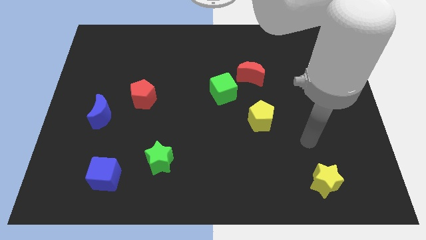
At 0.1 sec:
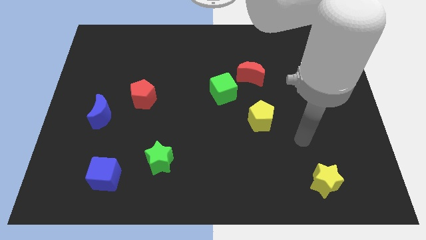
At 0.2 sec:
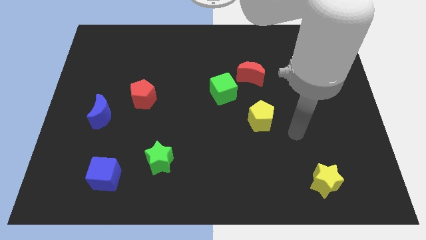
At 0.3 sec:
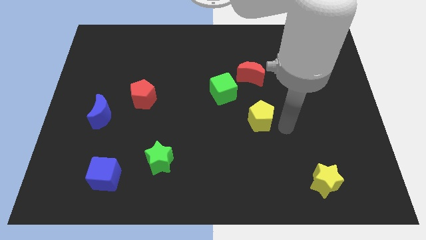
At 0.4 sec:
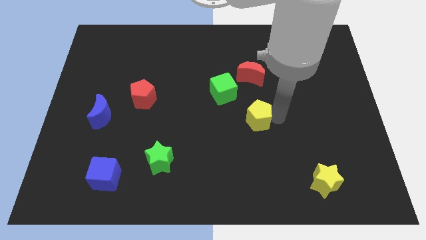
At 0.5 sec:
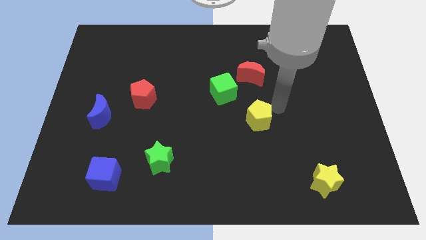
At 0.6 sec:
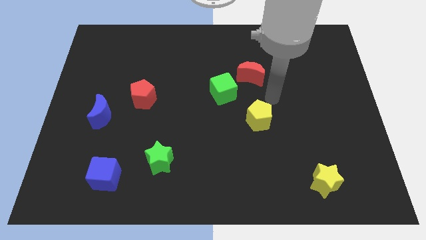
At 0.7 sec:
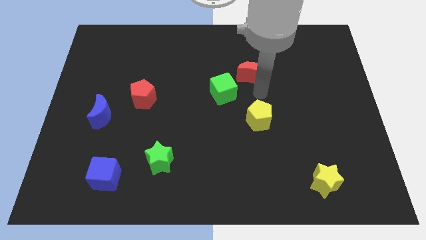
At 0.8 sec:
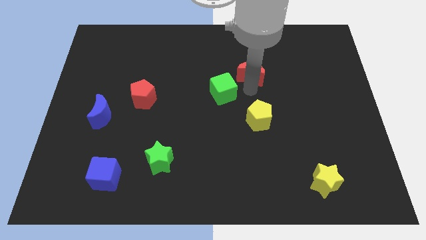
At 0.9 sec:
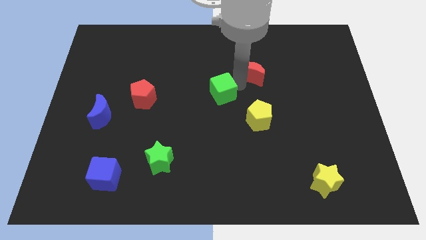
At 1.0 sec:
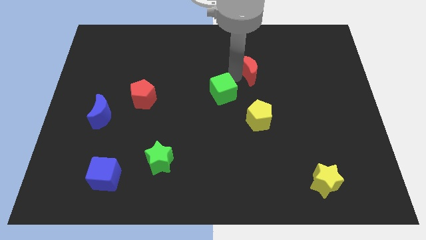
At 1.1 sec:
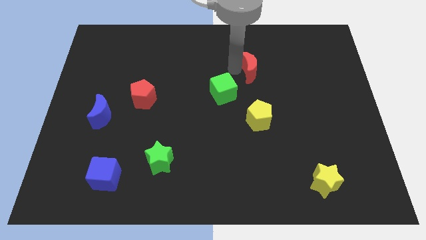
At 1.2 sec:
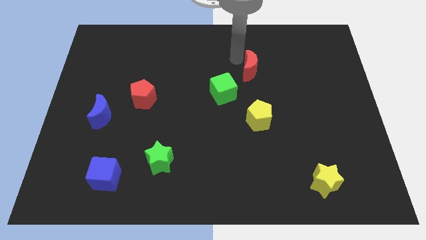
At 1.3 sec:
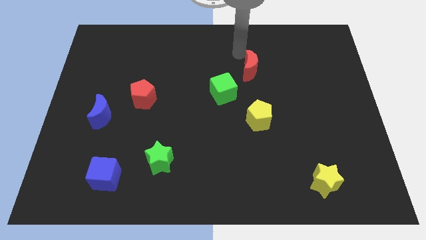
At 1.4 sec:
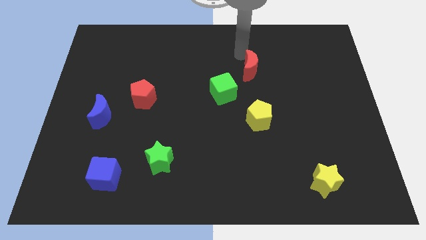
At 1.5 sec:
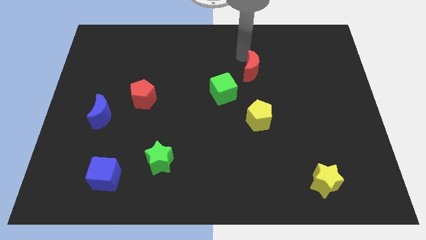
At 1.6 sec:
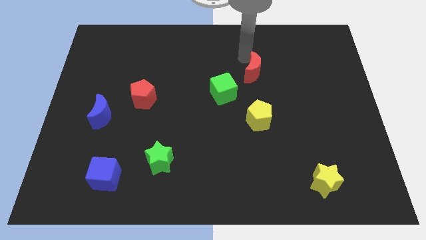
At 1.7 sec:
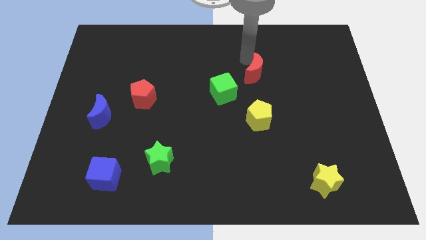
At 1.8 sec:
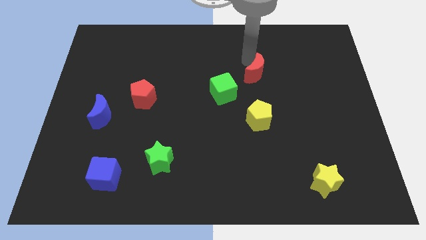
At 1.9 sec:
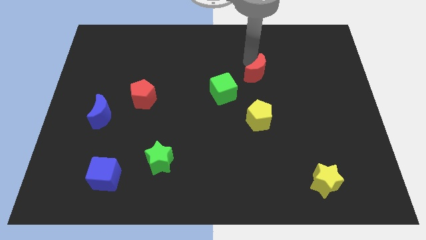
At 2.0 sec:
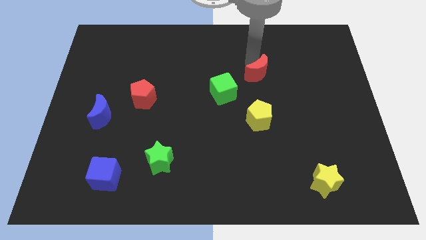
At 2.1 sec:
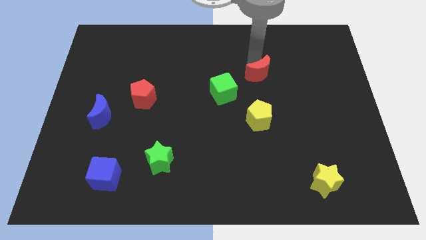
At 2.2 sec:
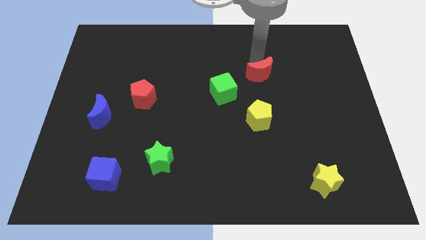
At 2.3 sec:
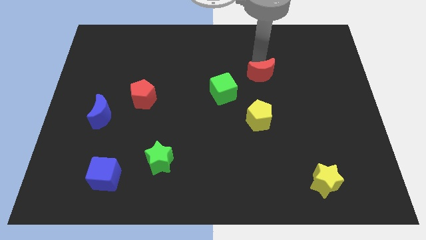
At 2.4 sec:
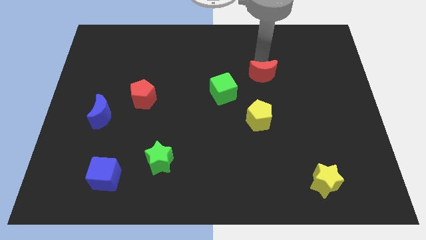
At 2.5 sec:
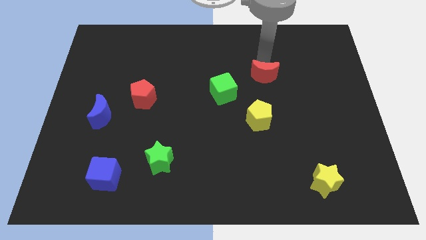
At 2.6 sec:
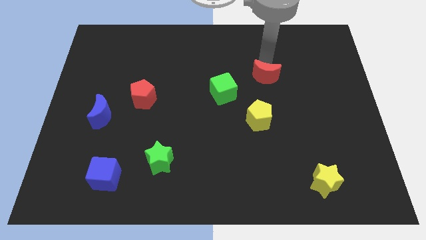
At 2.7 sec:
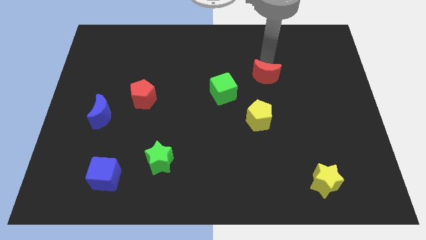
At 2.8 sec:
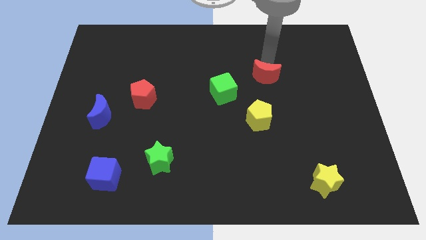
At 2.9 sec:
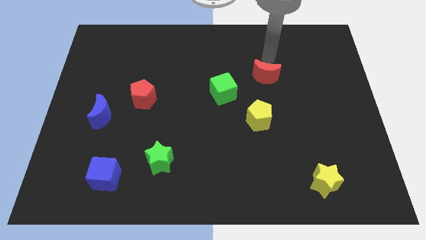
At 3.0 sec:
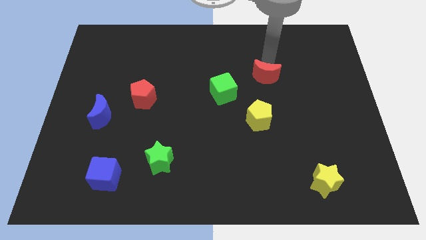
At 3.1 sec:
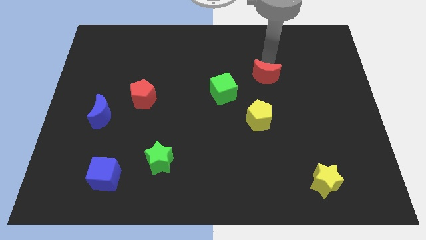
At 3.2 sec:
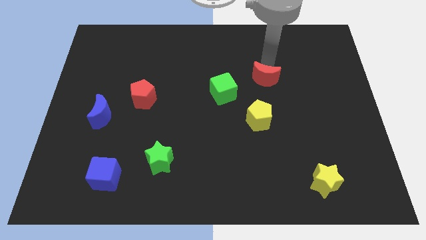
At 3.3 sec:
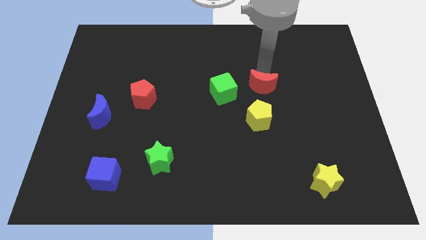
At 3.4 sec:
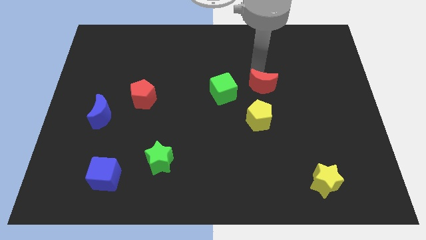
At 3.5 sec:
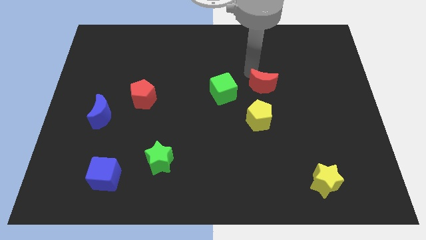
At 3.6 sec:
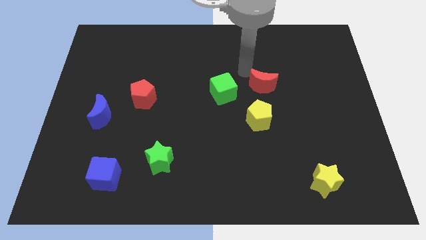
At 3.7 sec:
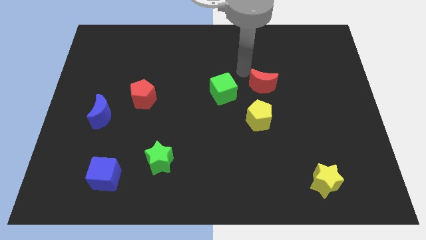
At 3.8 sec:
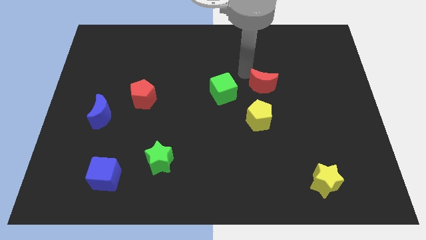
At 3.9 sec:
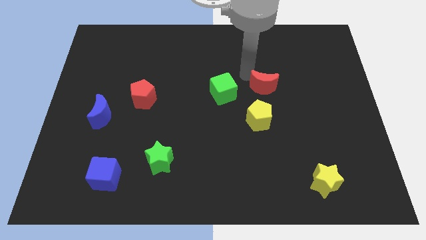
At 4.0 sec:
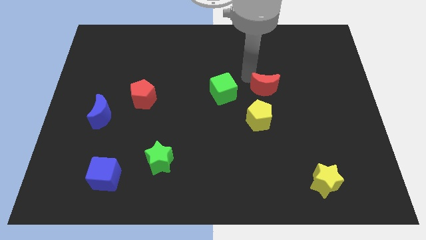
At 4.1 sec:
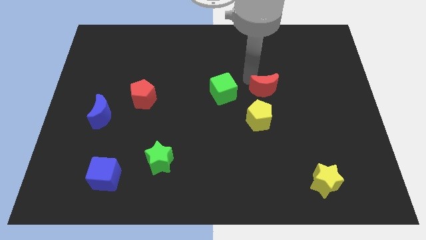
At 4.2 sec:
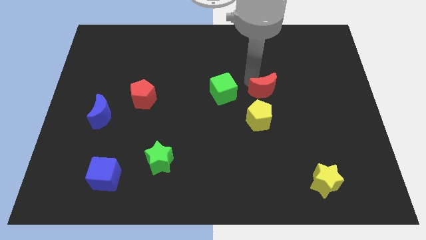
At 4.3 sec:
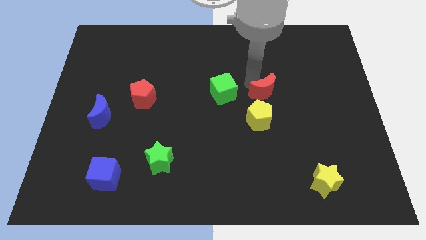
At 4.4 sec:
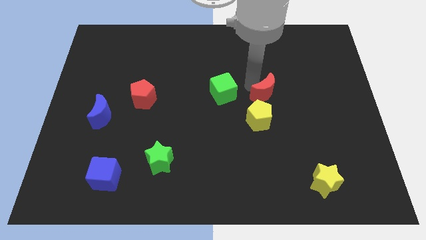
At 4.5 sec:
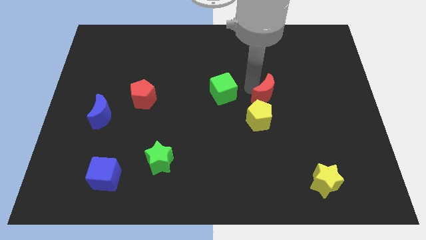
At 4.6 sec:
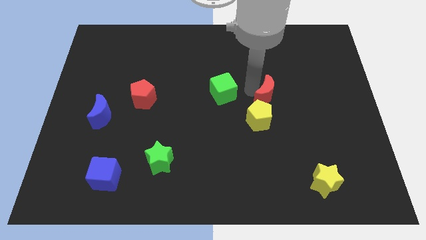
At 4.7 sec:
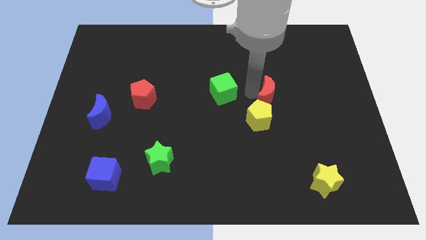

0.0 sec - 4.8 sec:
slide the red moon diagonally downwards and right slightly

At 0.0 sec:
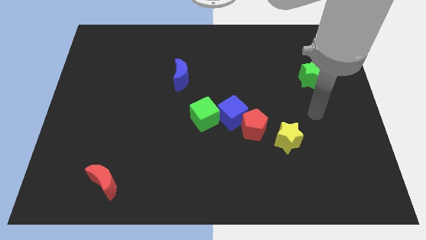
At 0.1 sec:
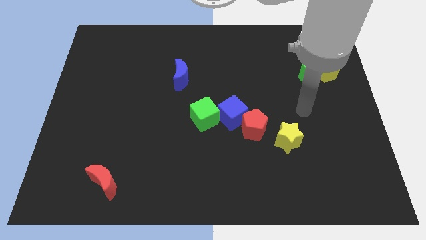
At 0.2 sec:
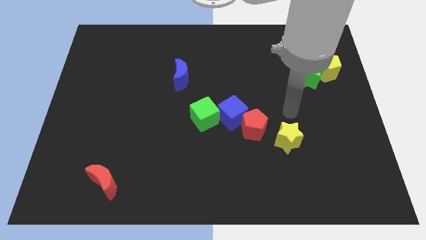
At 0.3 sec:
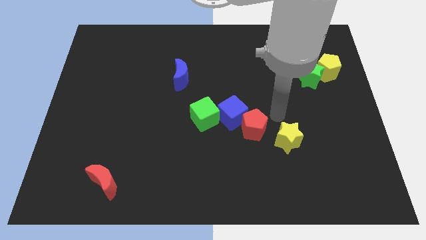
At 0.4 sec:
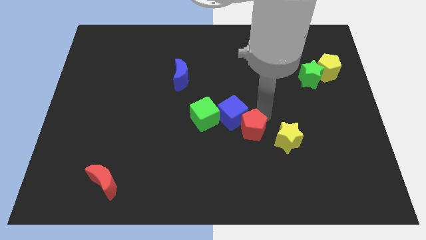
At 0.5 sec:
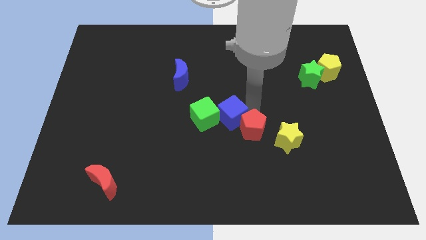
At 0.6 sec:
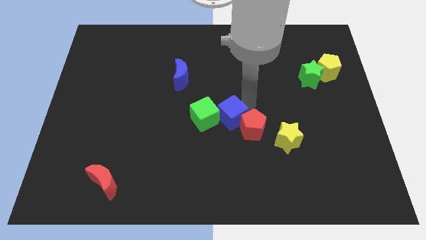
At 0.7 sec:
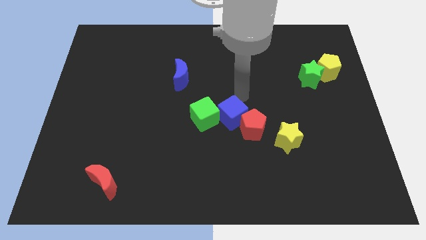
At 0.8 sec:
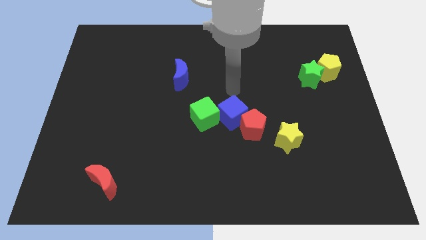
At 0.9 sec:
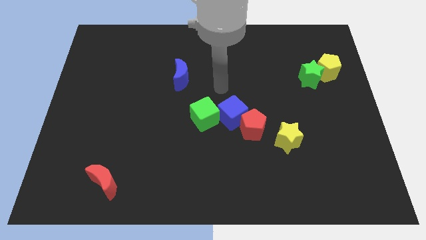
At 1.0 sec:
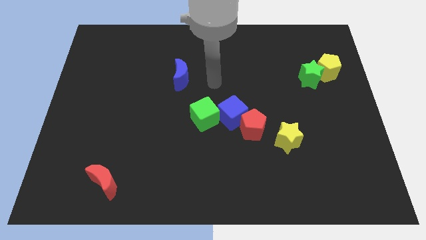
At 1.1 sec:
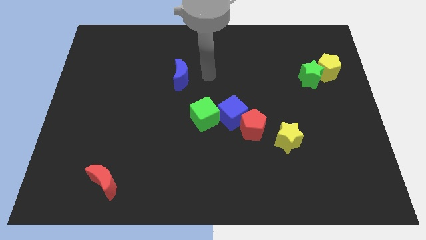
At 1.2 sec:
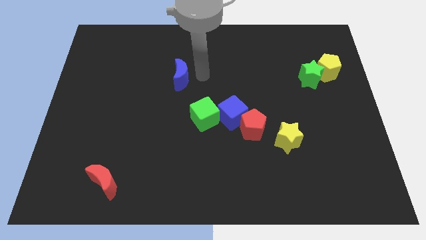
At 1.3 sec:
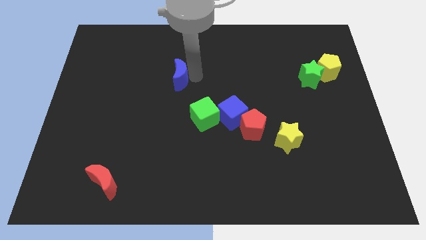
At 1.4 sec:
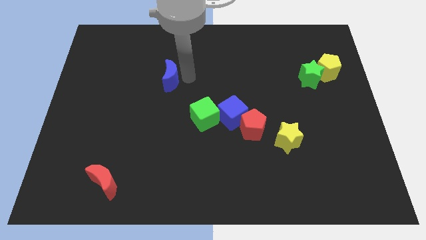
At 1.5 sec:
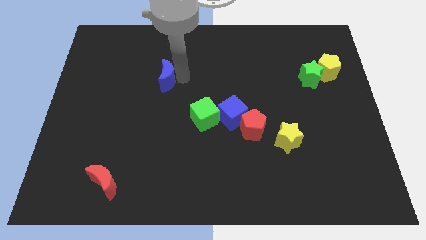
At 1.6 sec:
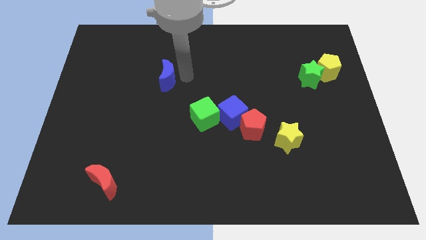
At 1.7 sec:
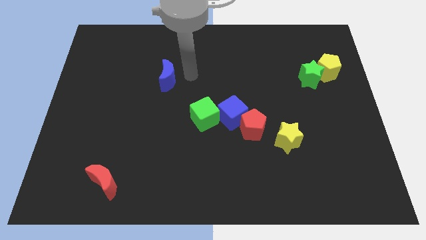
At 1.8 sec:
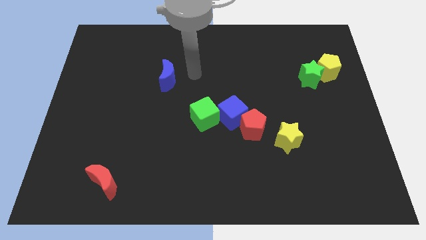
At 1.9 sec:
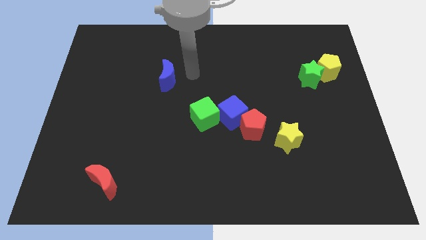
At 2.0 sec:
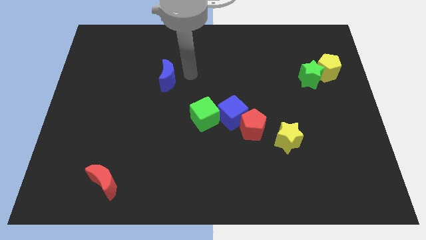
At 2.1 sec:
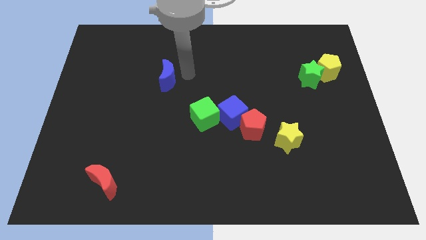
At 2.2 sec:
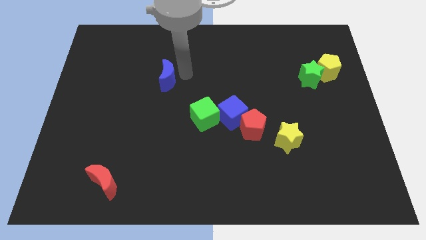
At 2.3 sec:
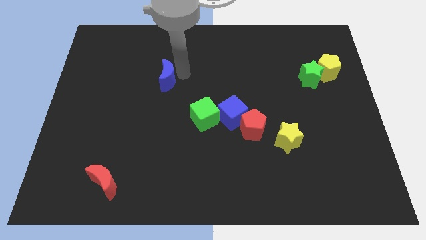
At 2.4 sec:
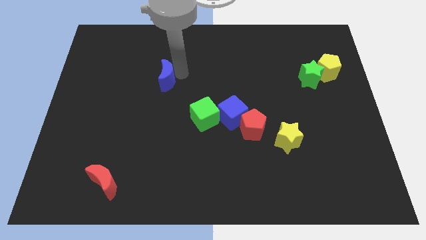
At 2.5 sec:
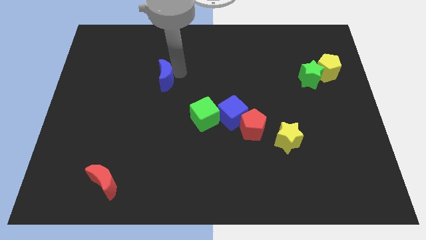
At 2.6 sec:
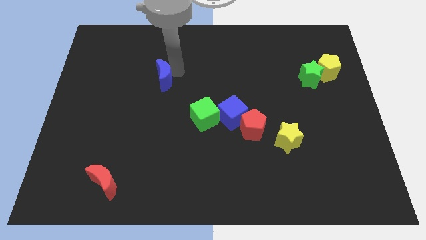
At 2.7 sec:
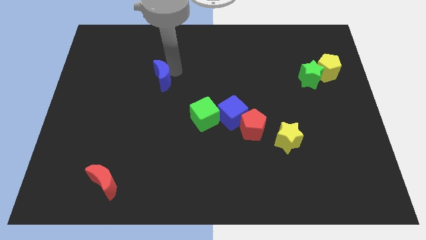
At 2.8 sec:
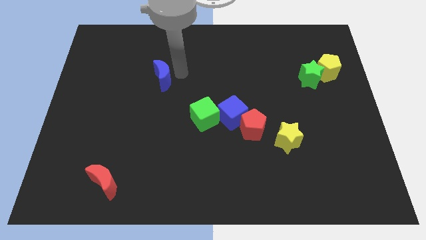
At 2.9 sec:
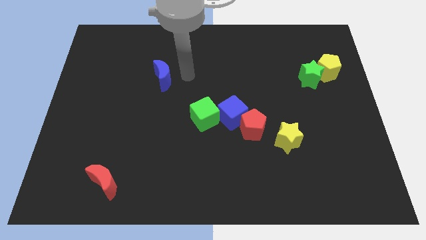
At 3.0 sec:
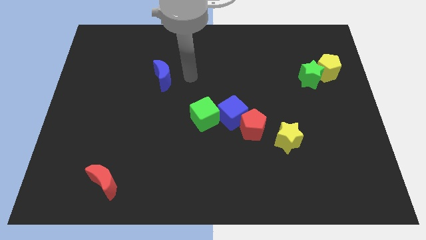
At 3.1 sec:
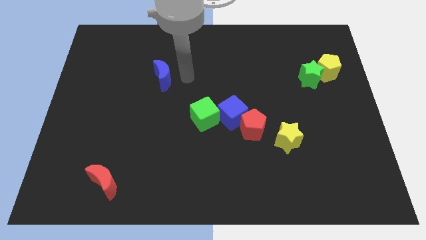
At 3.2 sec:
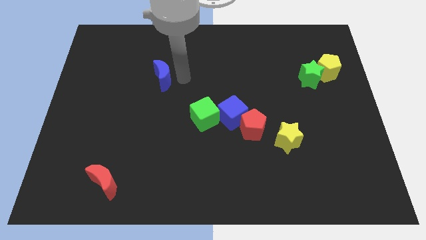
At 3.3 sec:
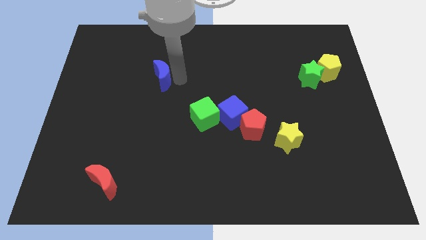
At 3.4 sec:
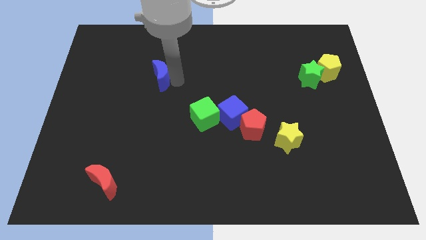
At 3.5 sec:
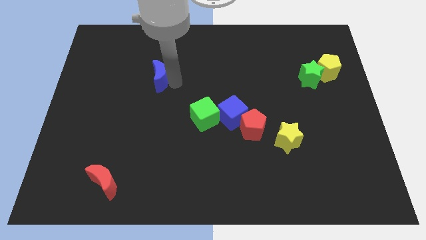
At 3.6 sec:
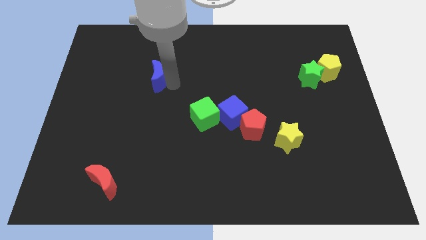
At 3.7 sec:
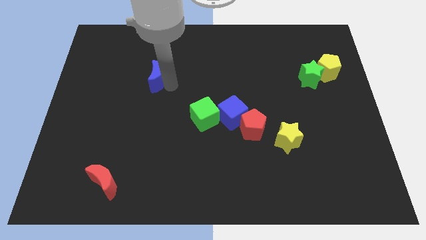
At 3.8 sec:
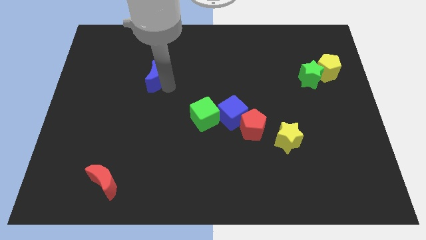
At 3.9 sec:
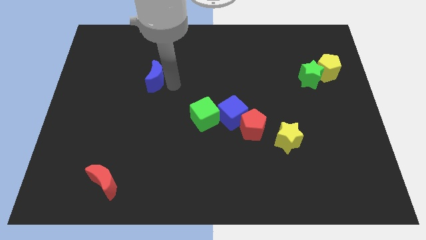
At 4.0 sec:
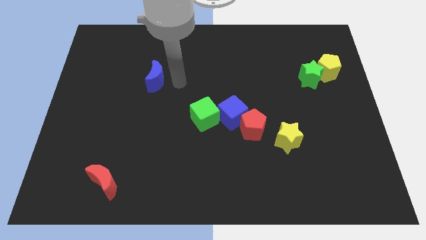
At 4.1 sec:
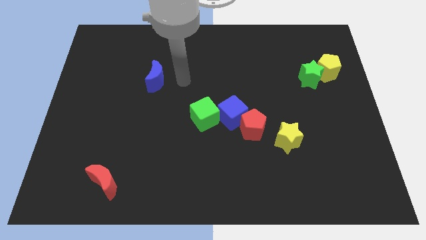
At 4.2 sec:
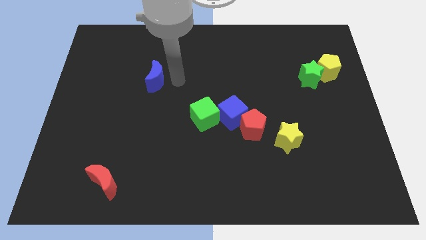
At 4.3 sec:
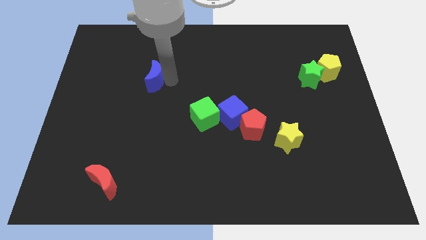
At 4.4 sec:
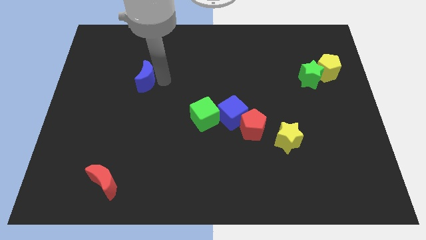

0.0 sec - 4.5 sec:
slightly slide the blue moon to the left
